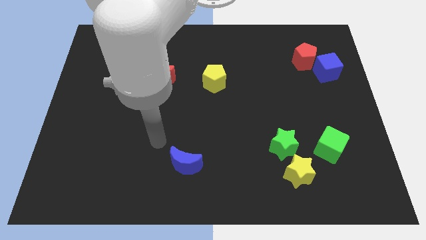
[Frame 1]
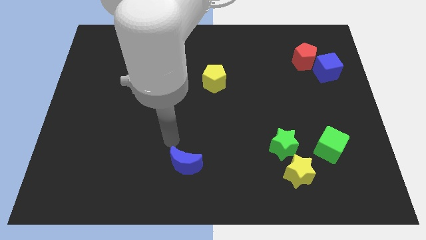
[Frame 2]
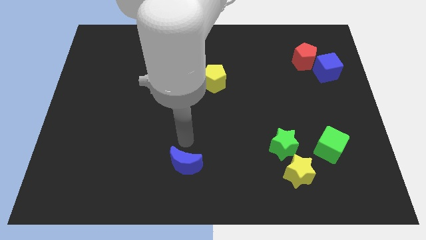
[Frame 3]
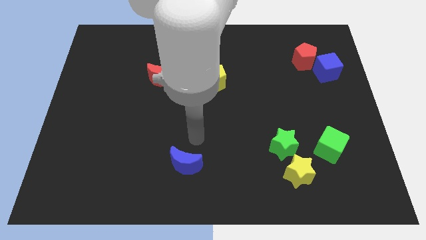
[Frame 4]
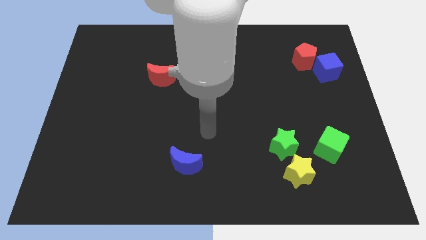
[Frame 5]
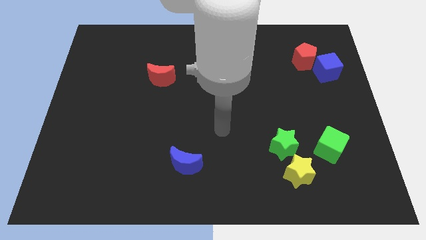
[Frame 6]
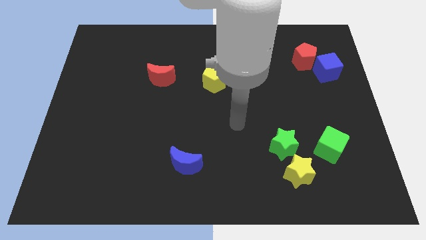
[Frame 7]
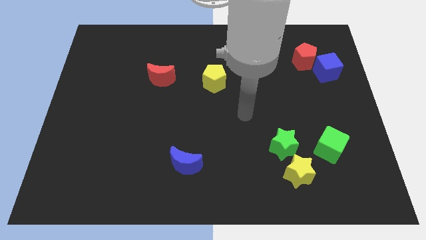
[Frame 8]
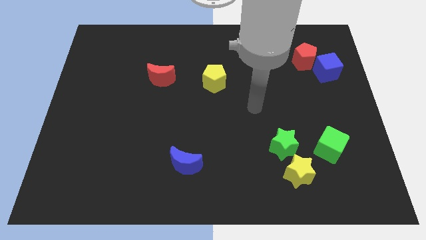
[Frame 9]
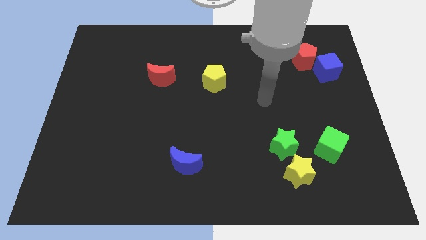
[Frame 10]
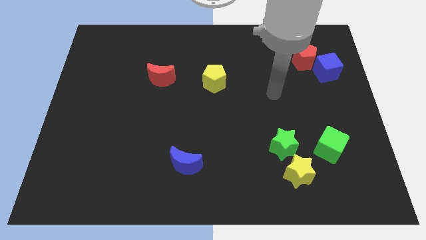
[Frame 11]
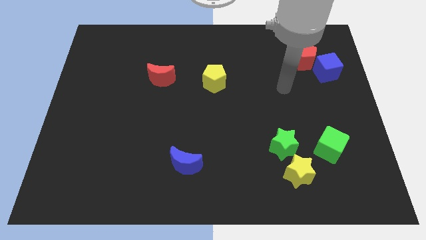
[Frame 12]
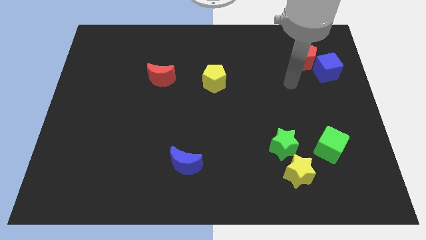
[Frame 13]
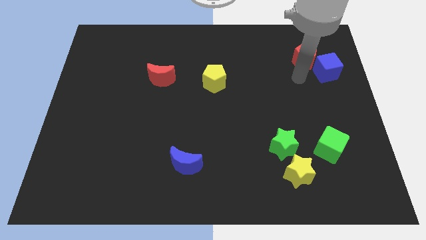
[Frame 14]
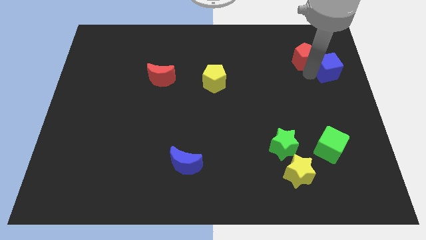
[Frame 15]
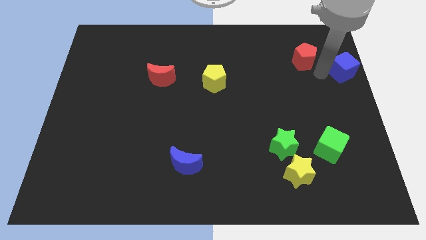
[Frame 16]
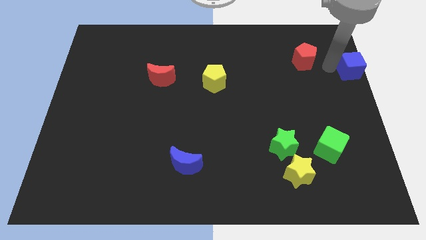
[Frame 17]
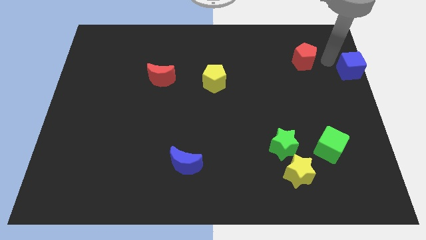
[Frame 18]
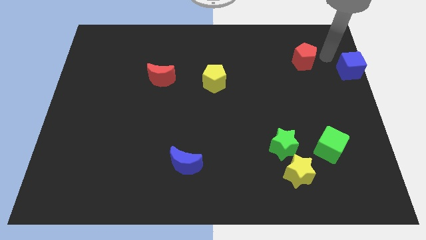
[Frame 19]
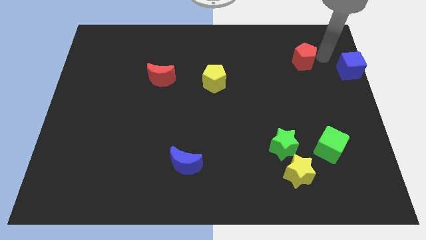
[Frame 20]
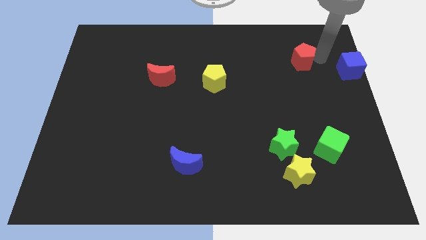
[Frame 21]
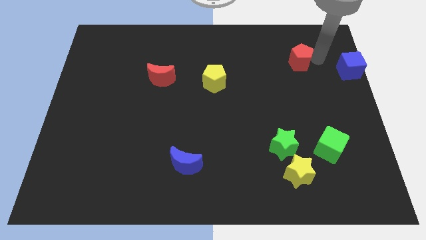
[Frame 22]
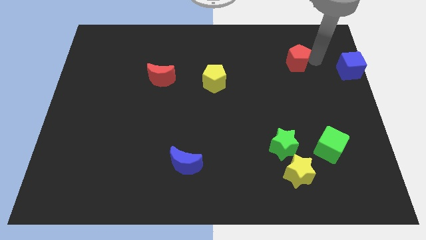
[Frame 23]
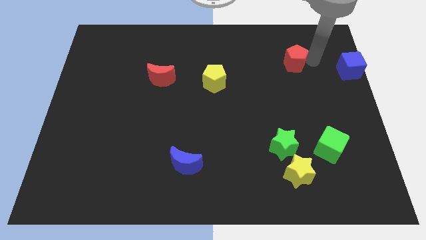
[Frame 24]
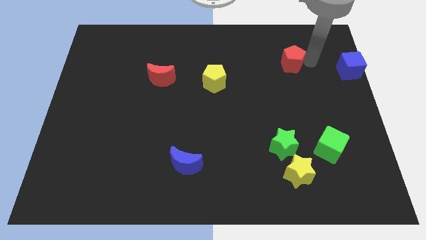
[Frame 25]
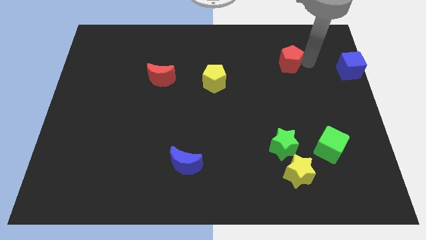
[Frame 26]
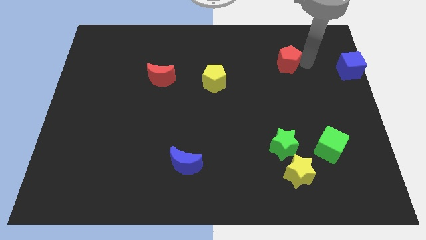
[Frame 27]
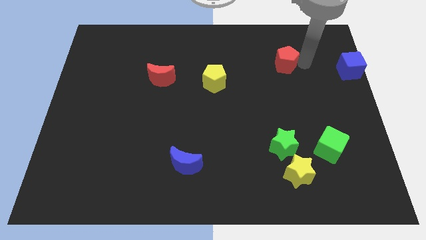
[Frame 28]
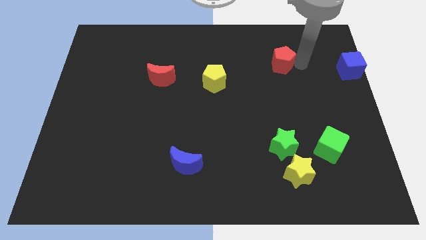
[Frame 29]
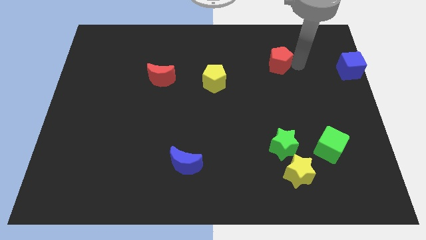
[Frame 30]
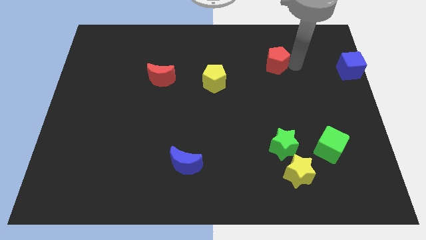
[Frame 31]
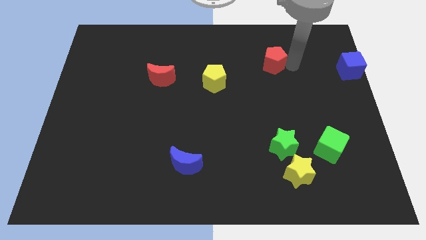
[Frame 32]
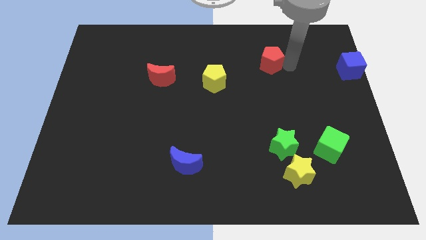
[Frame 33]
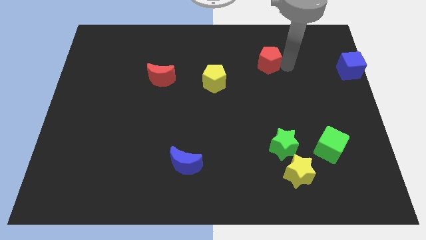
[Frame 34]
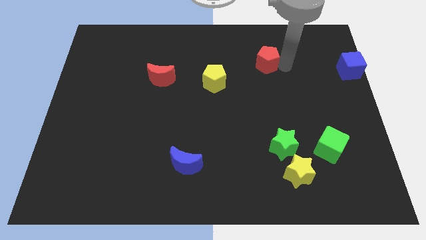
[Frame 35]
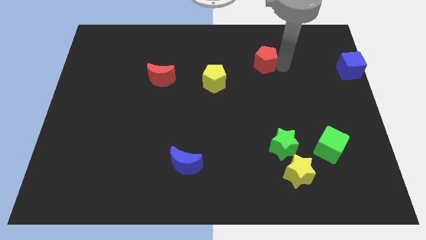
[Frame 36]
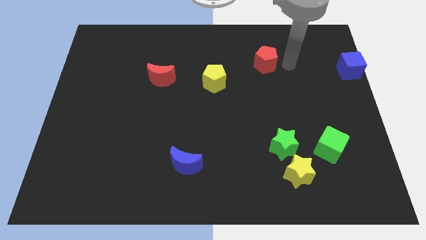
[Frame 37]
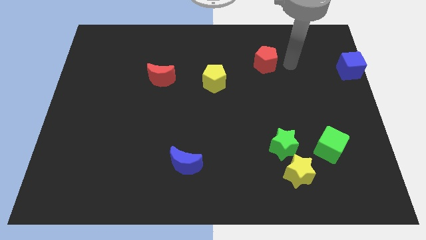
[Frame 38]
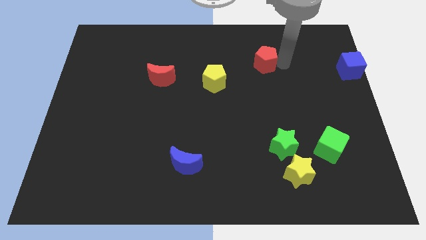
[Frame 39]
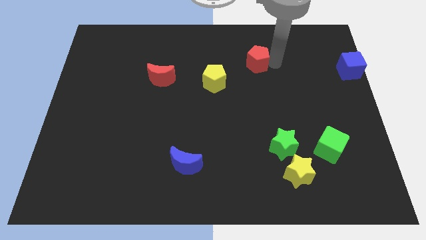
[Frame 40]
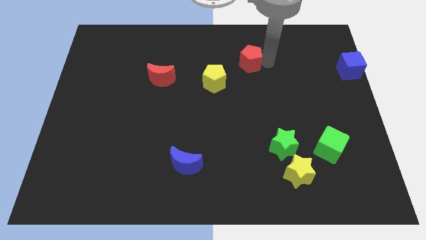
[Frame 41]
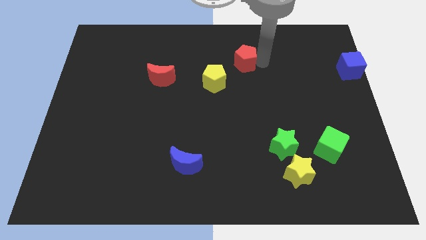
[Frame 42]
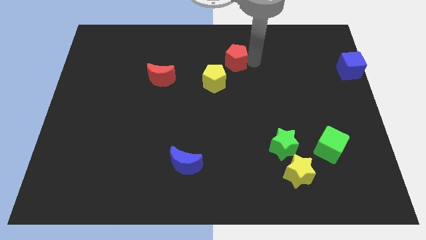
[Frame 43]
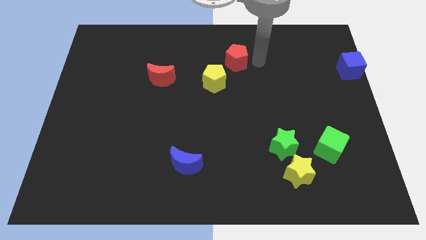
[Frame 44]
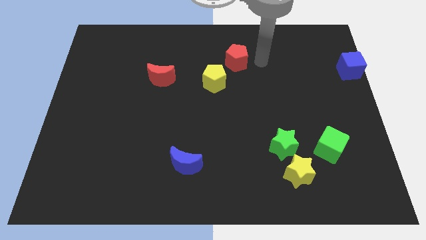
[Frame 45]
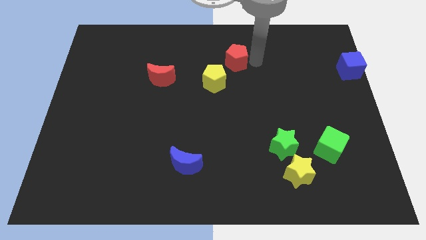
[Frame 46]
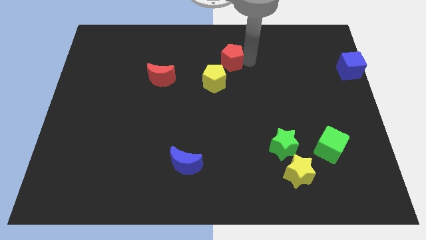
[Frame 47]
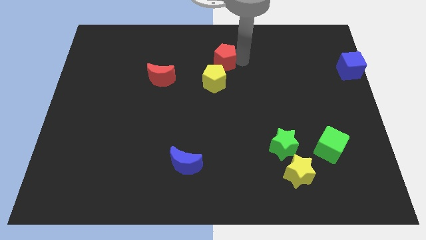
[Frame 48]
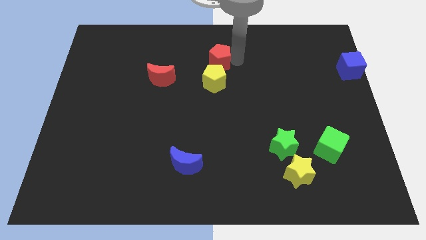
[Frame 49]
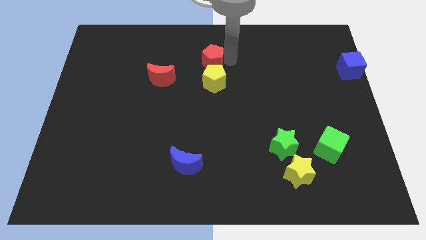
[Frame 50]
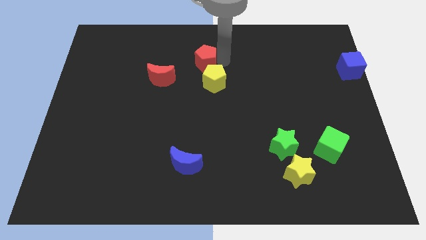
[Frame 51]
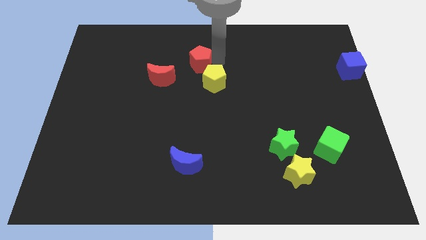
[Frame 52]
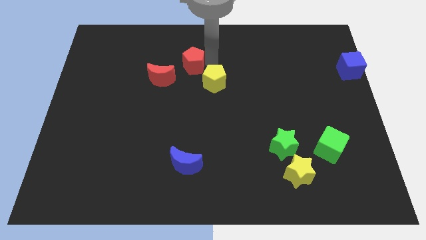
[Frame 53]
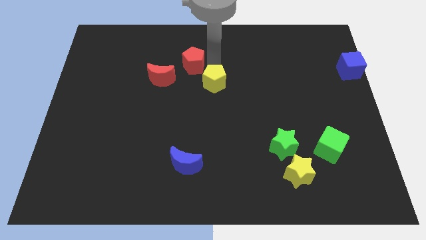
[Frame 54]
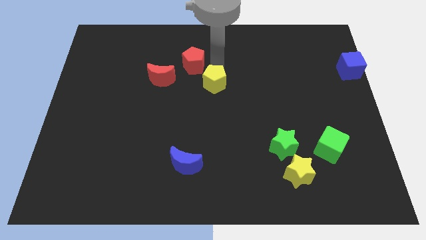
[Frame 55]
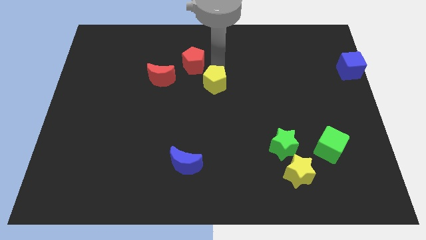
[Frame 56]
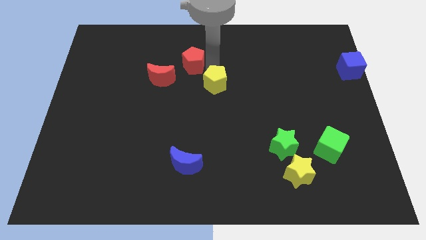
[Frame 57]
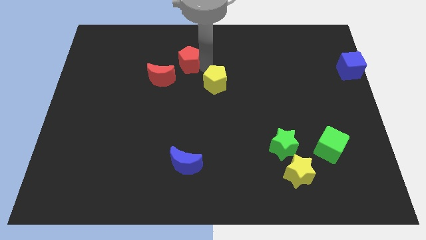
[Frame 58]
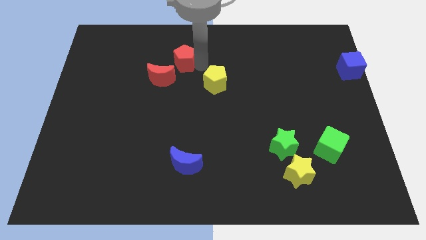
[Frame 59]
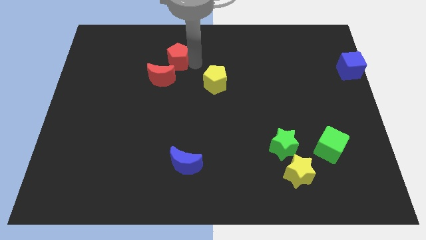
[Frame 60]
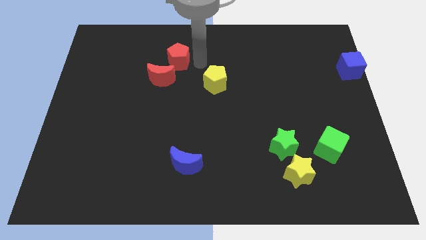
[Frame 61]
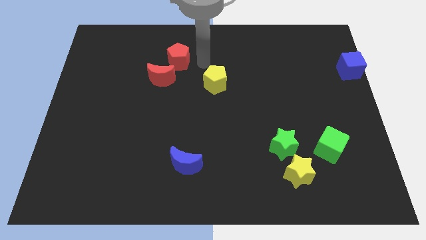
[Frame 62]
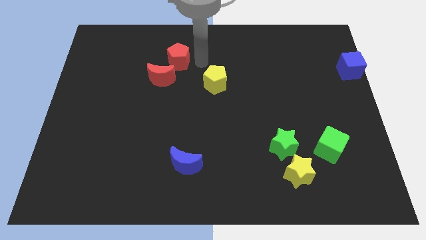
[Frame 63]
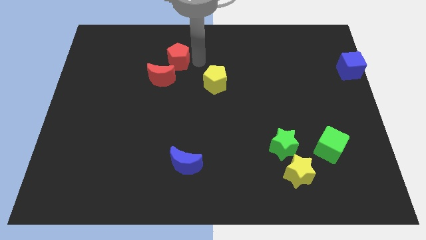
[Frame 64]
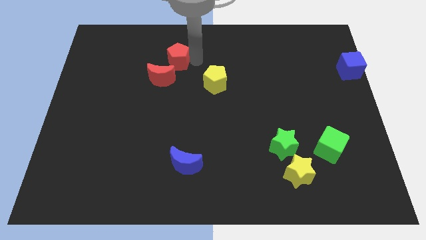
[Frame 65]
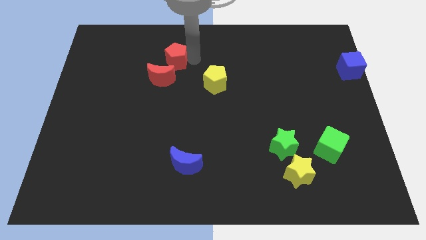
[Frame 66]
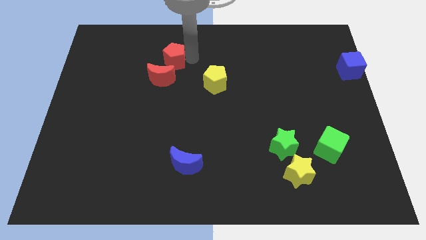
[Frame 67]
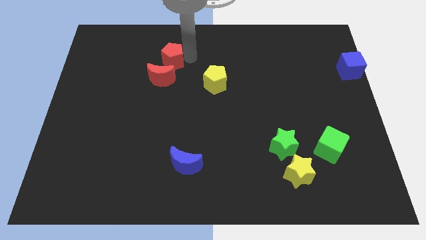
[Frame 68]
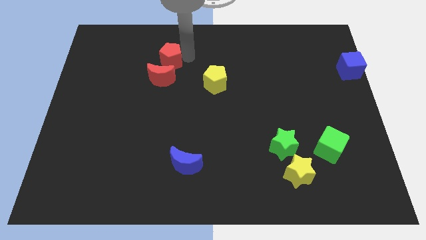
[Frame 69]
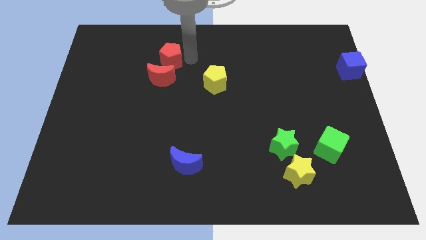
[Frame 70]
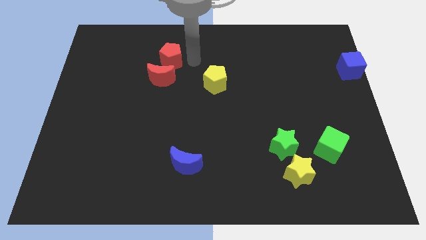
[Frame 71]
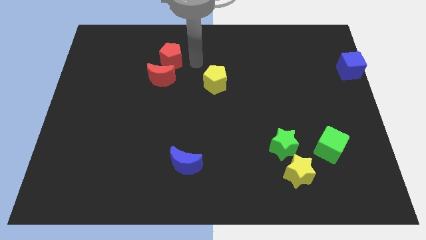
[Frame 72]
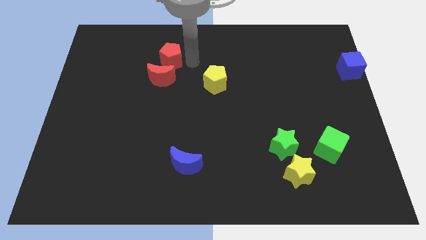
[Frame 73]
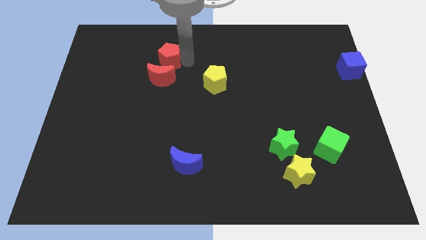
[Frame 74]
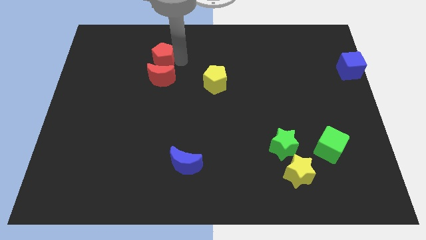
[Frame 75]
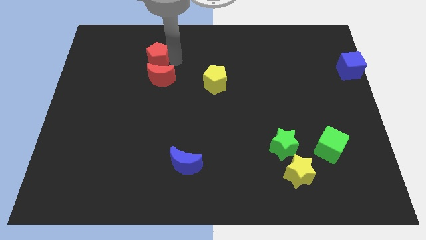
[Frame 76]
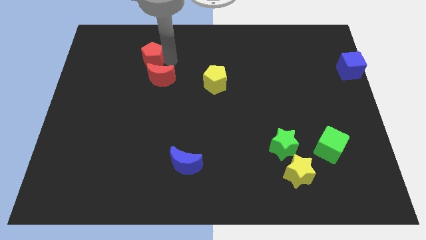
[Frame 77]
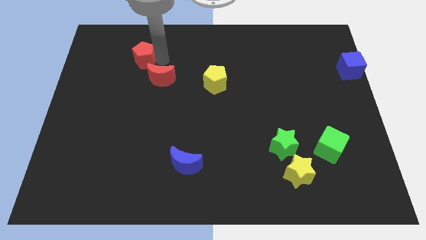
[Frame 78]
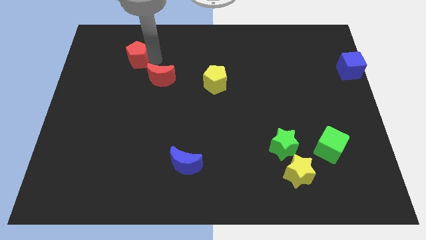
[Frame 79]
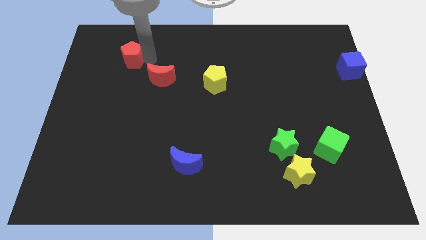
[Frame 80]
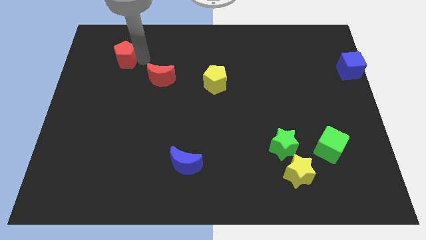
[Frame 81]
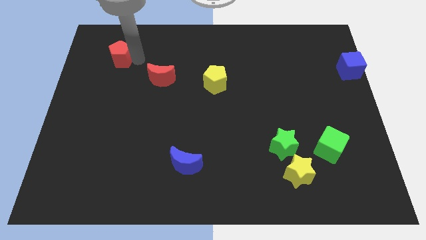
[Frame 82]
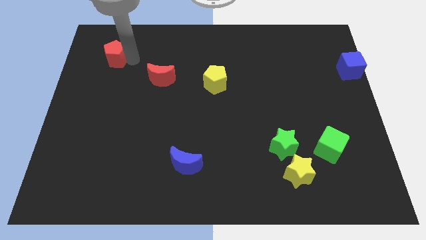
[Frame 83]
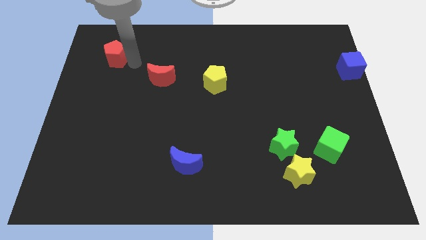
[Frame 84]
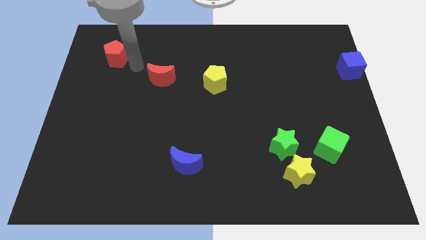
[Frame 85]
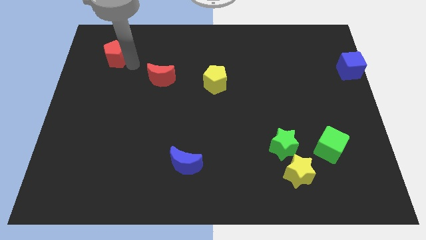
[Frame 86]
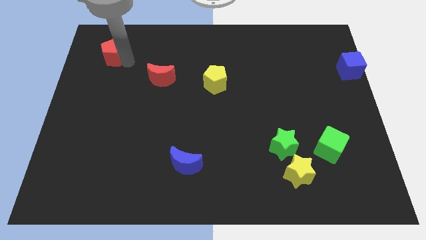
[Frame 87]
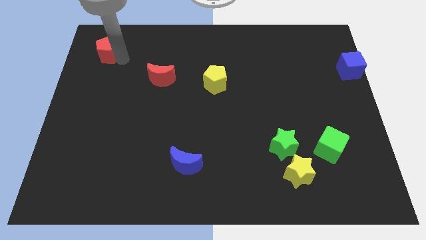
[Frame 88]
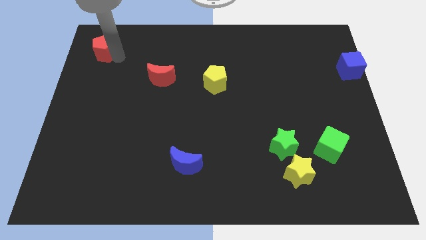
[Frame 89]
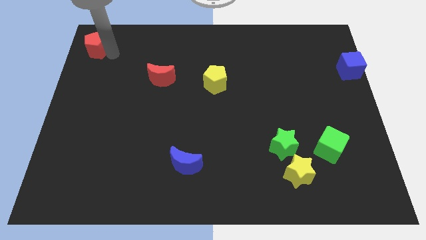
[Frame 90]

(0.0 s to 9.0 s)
push the red pentagon to the top left of the board
